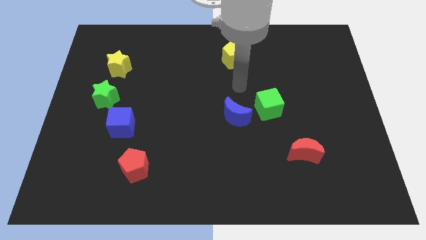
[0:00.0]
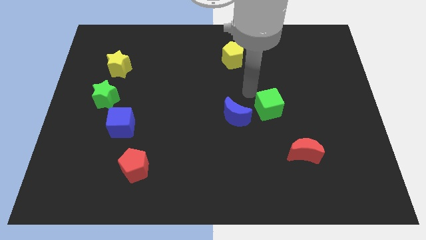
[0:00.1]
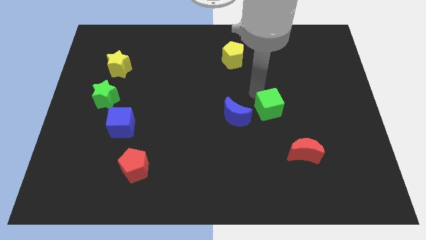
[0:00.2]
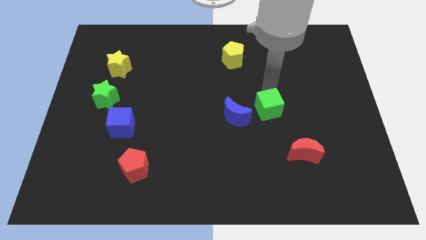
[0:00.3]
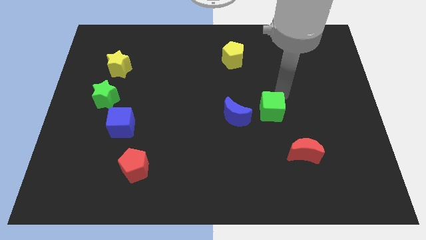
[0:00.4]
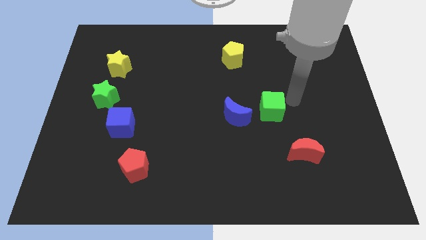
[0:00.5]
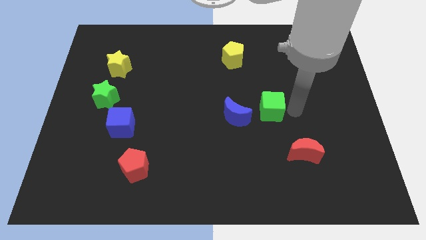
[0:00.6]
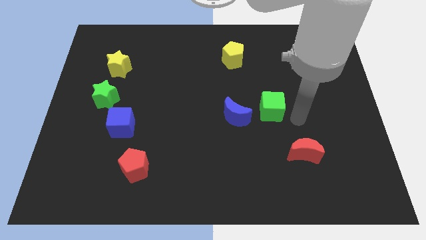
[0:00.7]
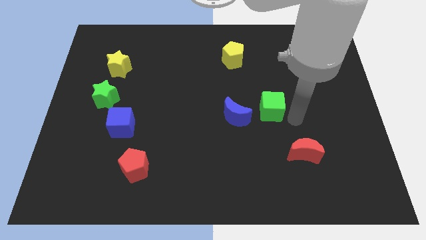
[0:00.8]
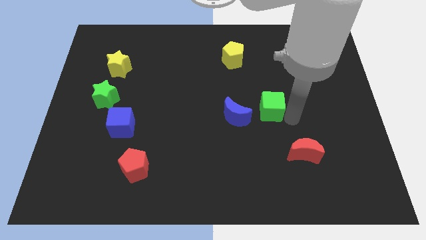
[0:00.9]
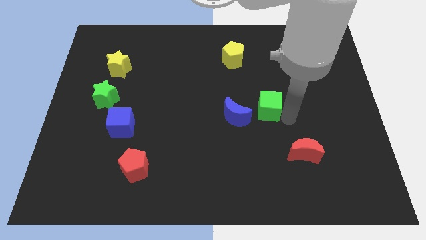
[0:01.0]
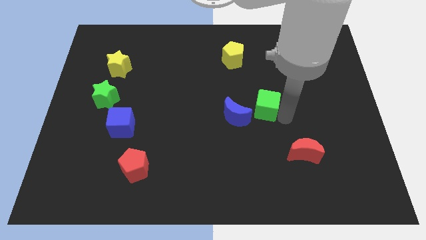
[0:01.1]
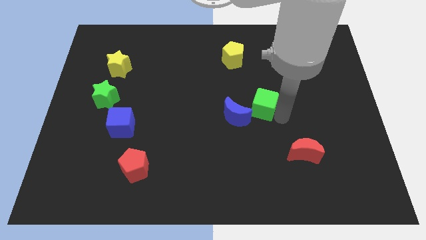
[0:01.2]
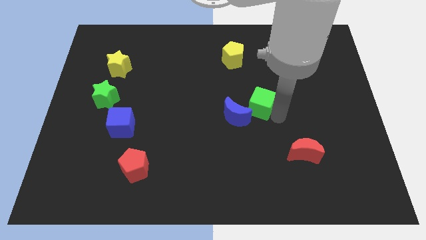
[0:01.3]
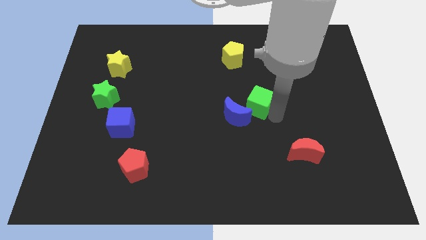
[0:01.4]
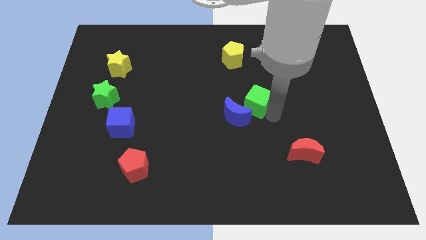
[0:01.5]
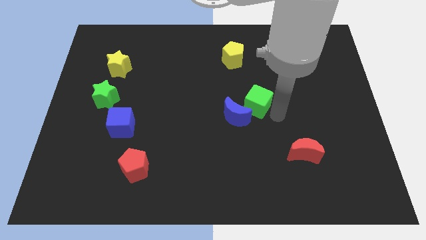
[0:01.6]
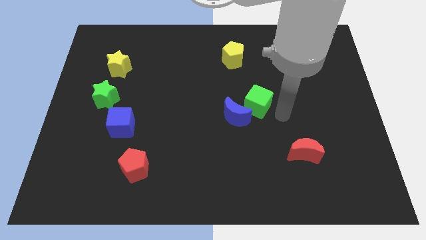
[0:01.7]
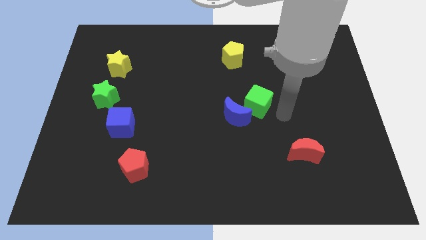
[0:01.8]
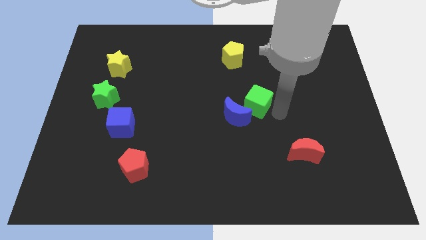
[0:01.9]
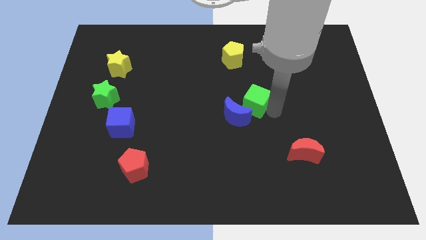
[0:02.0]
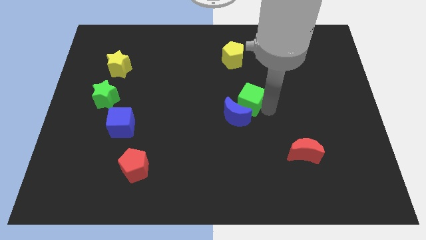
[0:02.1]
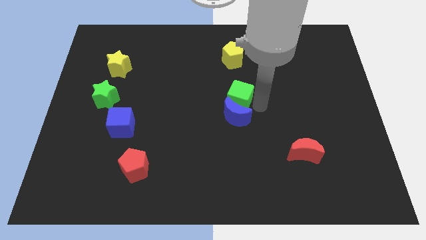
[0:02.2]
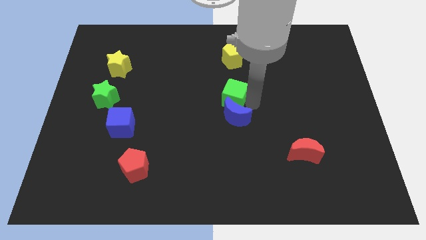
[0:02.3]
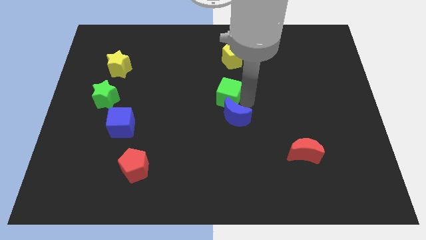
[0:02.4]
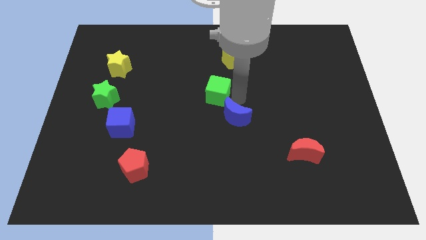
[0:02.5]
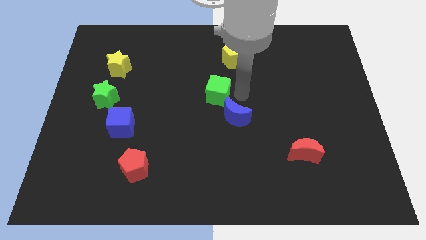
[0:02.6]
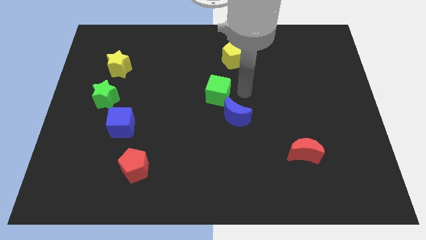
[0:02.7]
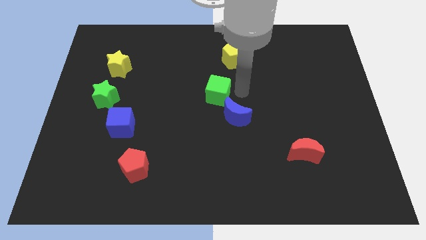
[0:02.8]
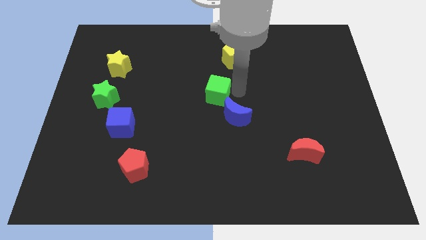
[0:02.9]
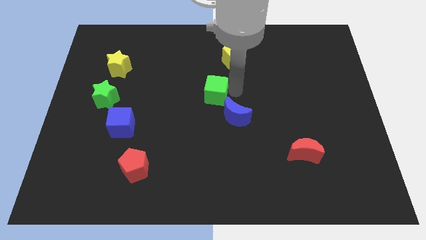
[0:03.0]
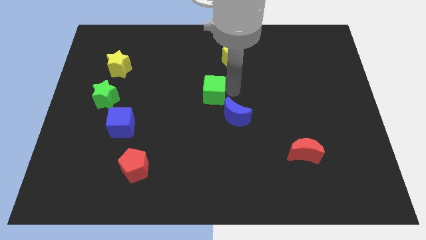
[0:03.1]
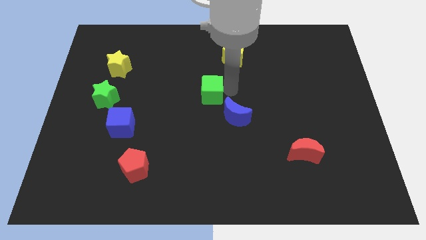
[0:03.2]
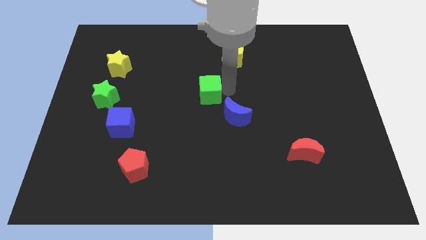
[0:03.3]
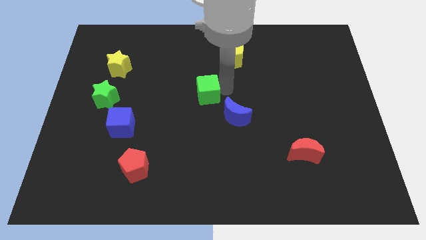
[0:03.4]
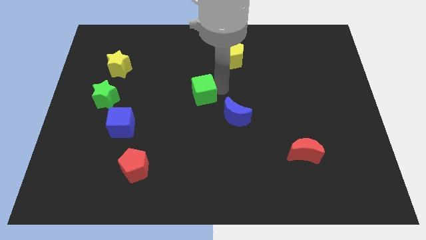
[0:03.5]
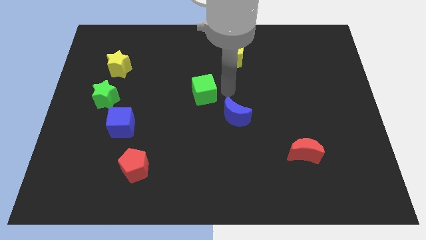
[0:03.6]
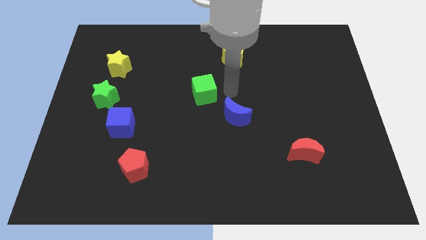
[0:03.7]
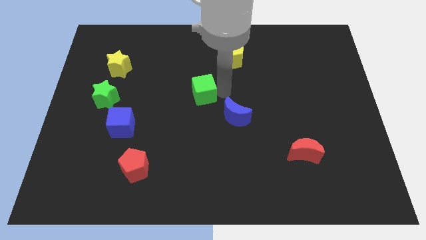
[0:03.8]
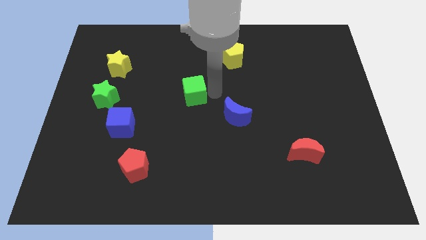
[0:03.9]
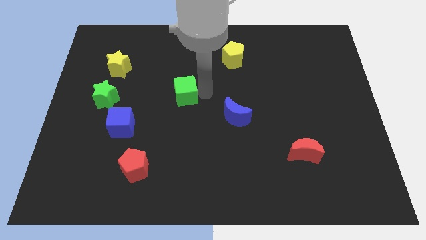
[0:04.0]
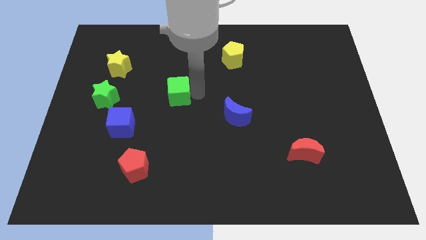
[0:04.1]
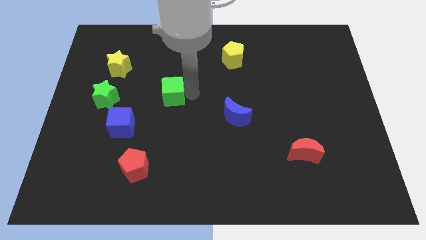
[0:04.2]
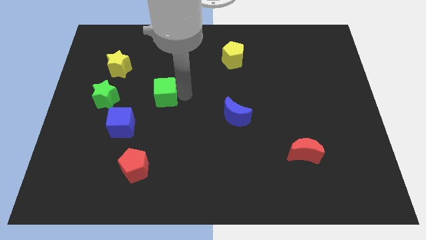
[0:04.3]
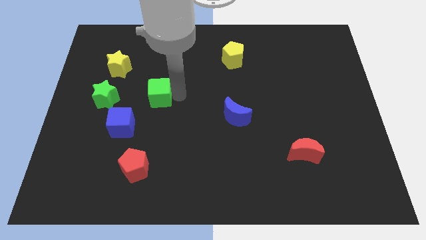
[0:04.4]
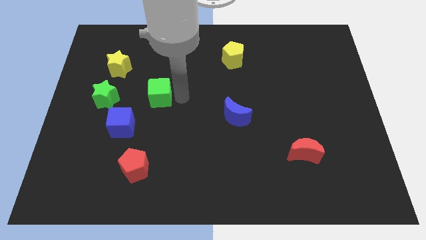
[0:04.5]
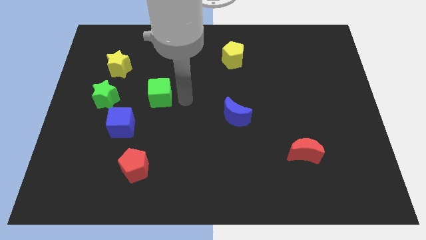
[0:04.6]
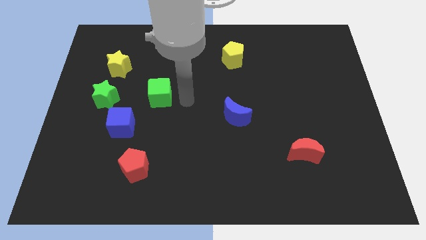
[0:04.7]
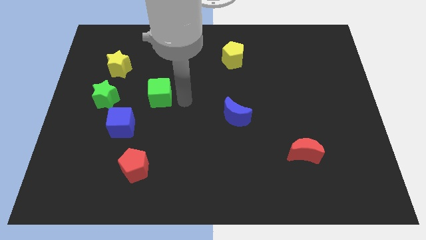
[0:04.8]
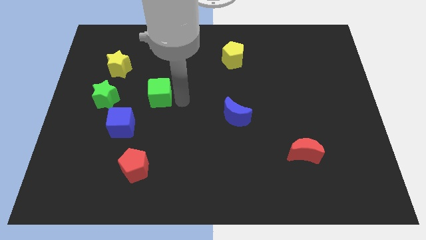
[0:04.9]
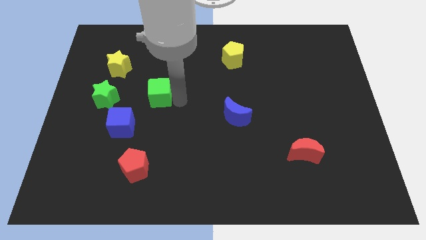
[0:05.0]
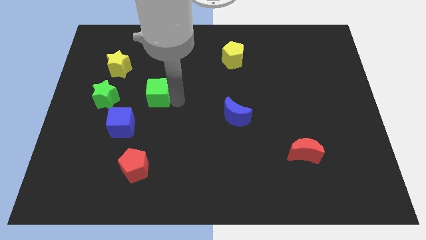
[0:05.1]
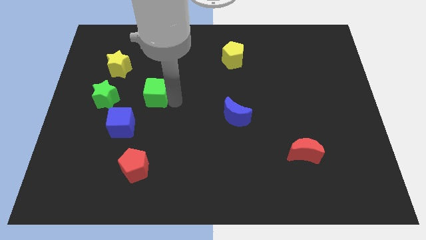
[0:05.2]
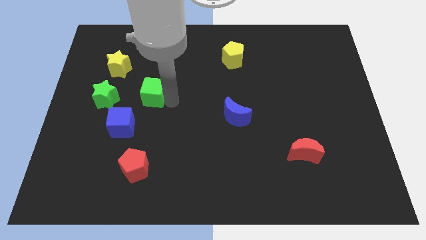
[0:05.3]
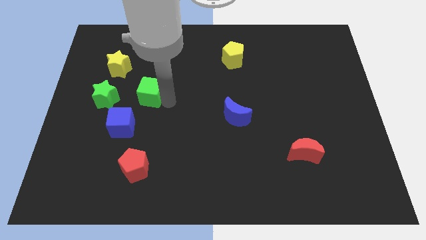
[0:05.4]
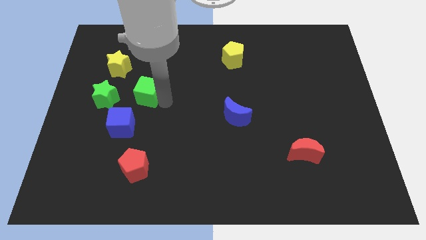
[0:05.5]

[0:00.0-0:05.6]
push the green cube to the top side of the blue cube

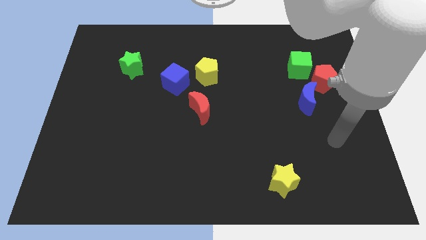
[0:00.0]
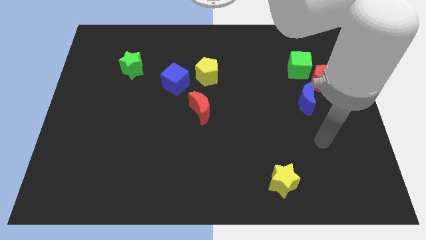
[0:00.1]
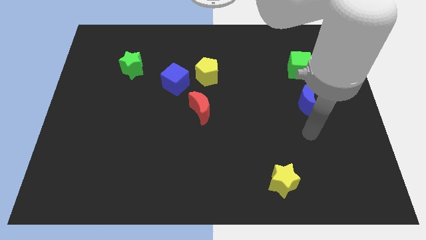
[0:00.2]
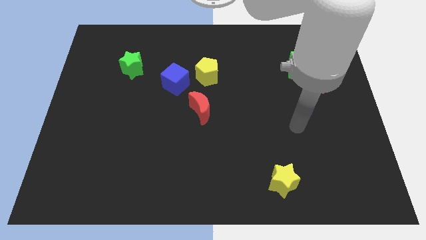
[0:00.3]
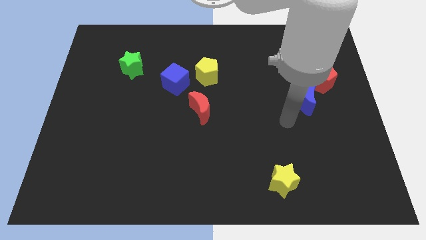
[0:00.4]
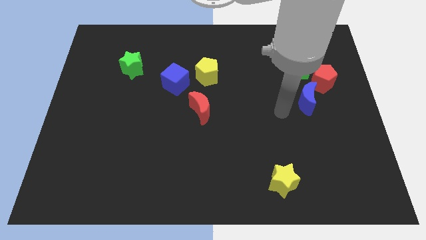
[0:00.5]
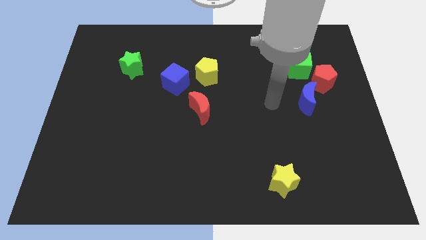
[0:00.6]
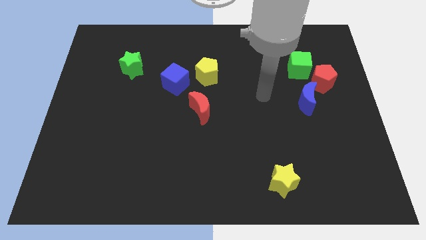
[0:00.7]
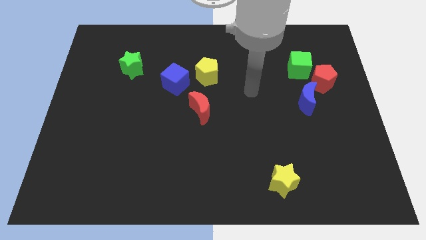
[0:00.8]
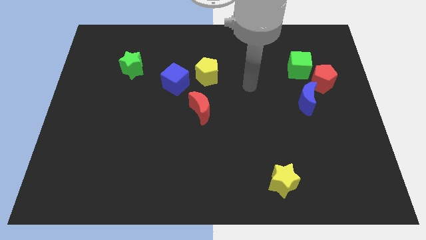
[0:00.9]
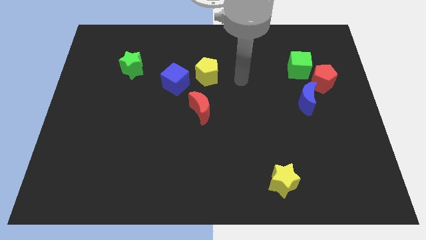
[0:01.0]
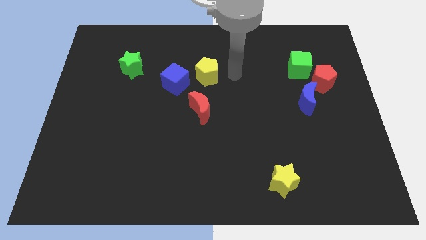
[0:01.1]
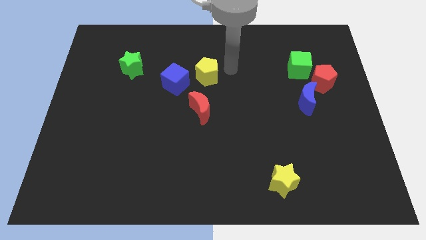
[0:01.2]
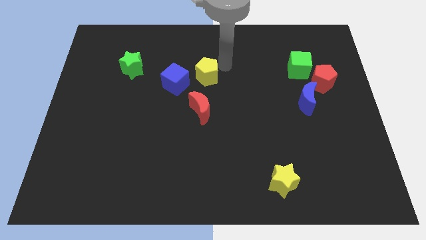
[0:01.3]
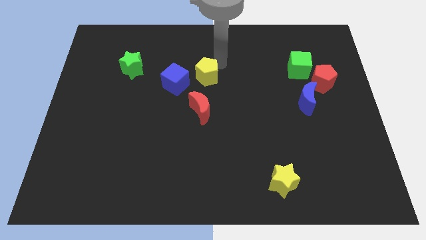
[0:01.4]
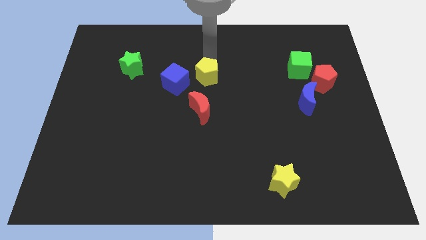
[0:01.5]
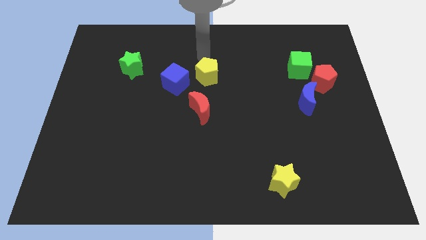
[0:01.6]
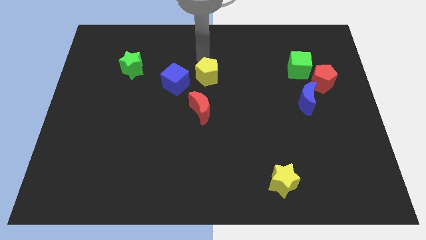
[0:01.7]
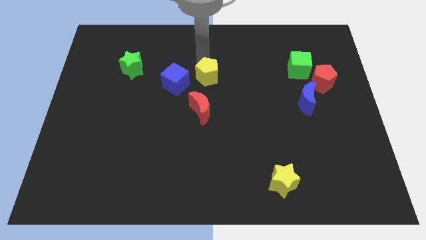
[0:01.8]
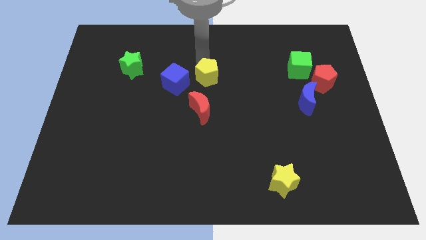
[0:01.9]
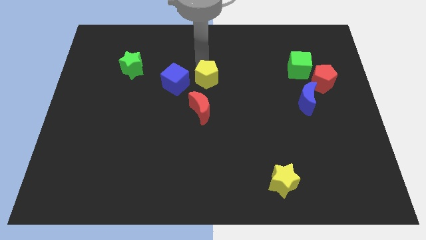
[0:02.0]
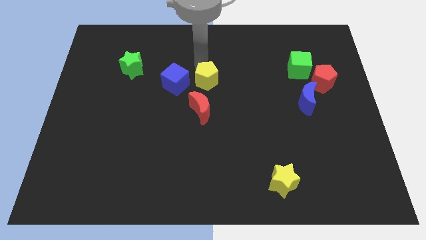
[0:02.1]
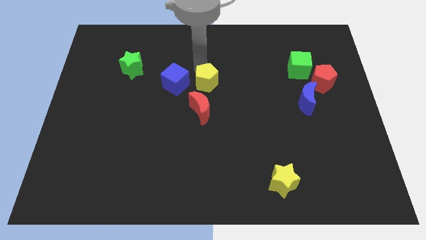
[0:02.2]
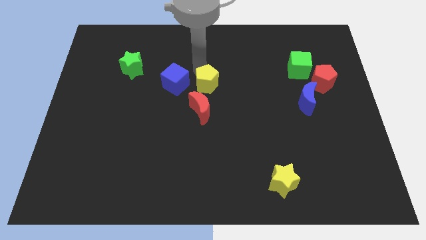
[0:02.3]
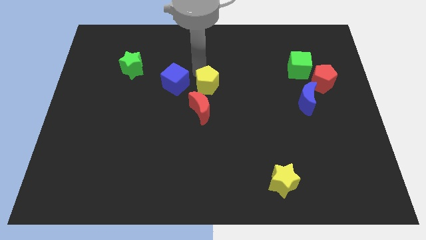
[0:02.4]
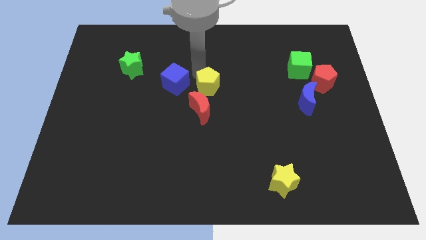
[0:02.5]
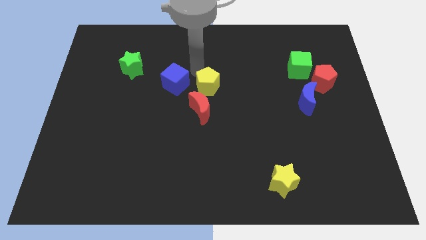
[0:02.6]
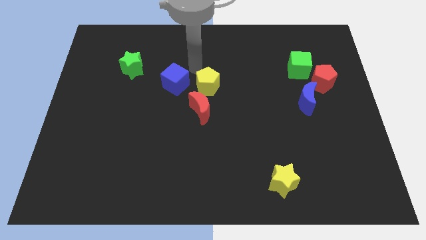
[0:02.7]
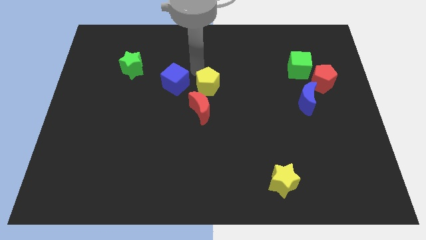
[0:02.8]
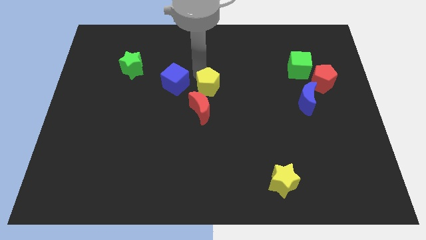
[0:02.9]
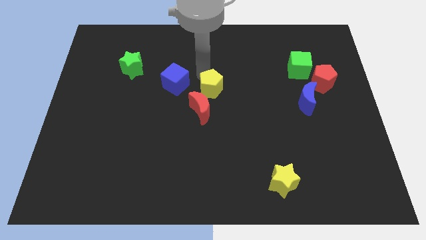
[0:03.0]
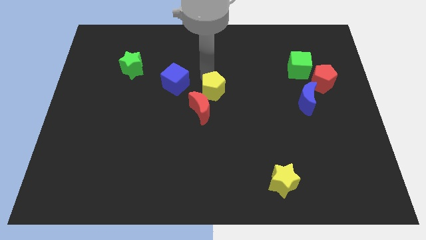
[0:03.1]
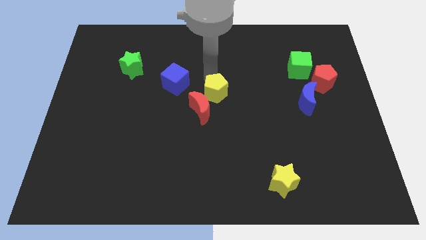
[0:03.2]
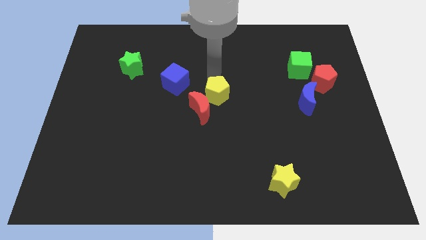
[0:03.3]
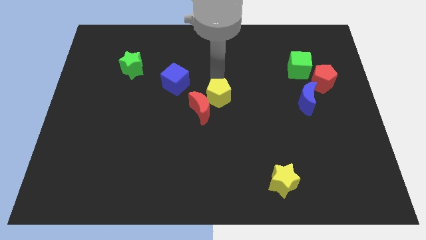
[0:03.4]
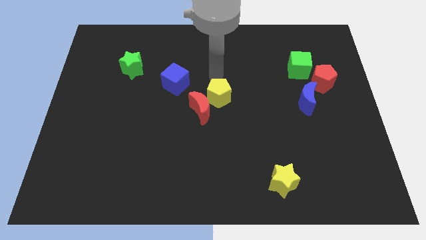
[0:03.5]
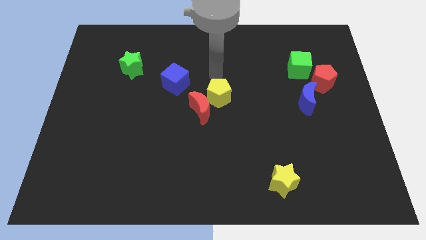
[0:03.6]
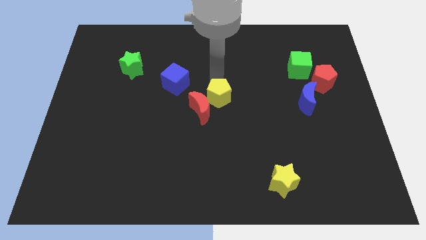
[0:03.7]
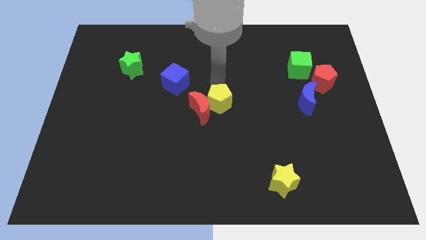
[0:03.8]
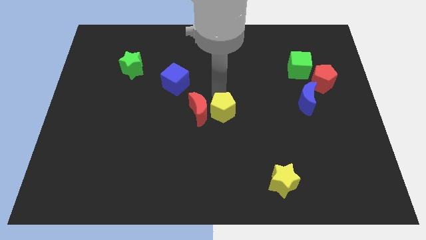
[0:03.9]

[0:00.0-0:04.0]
slide the yellow pentagon to the bottom right side of the red moon
